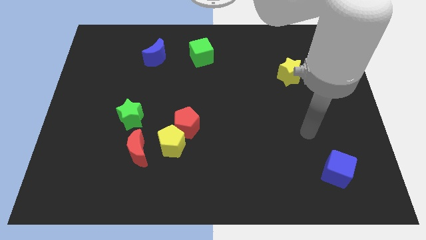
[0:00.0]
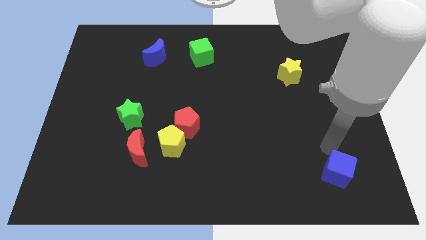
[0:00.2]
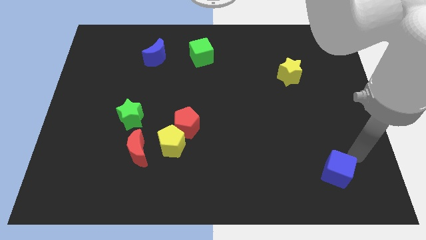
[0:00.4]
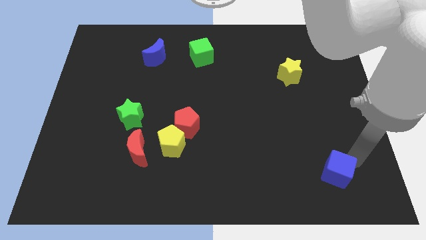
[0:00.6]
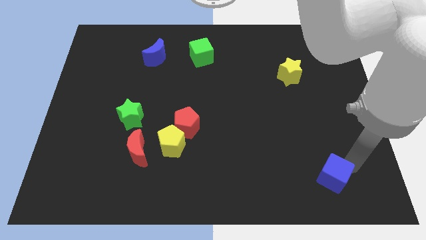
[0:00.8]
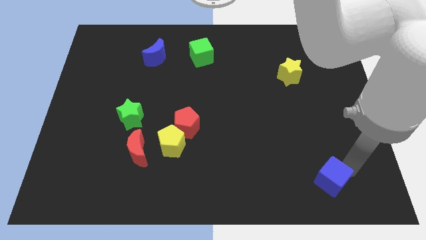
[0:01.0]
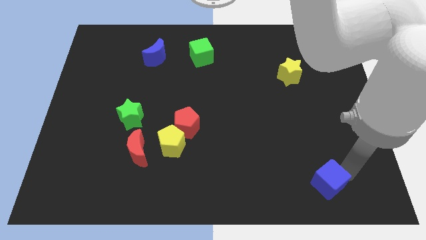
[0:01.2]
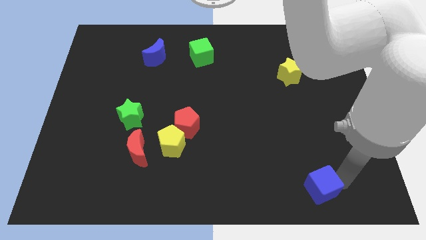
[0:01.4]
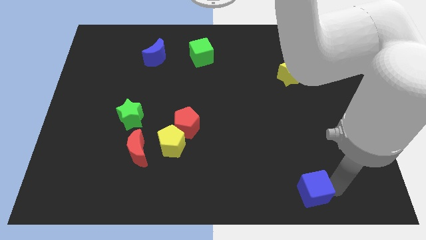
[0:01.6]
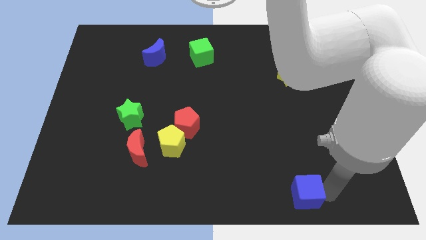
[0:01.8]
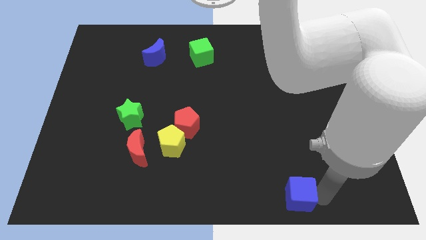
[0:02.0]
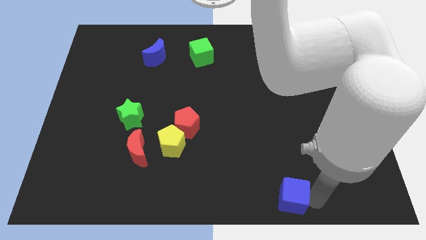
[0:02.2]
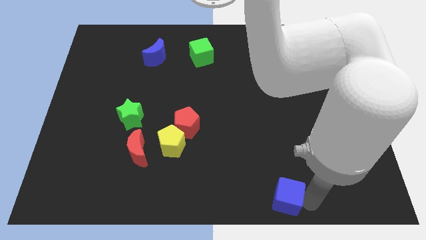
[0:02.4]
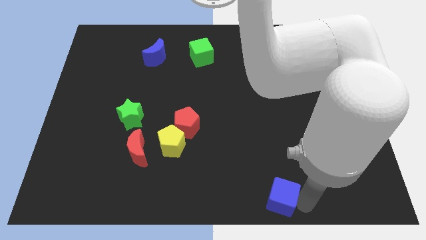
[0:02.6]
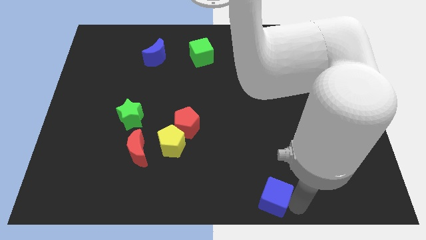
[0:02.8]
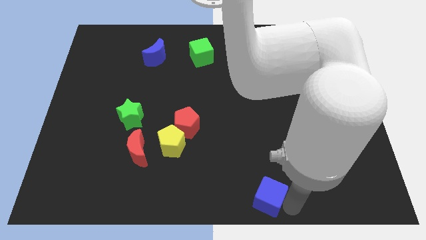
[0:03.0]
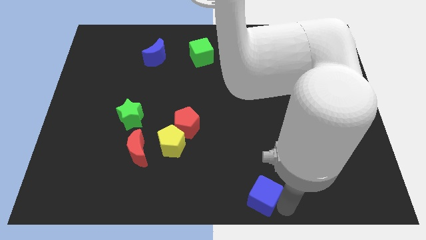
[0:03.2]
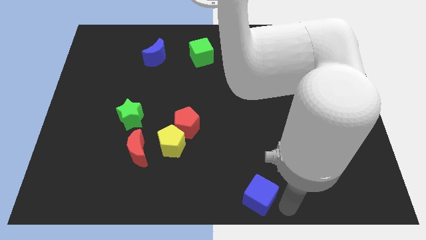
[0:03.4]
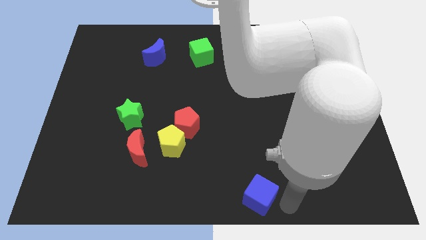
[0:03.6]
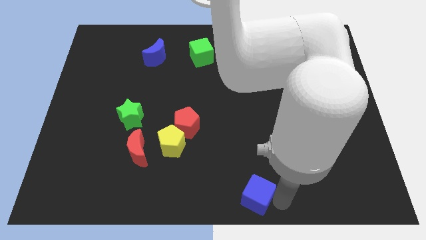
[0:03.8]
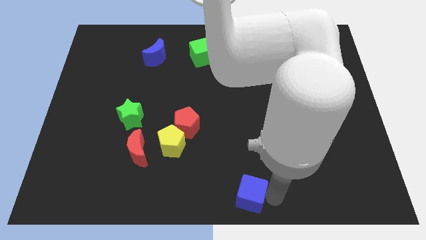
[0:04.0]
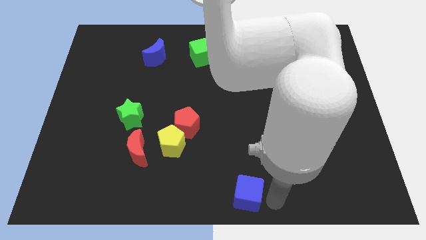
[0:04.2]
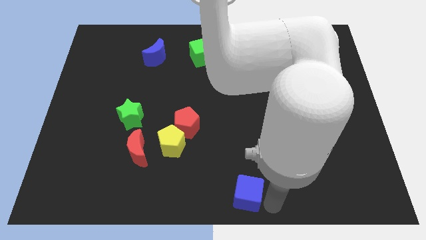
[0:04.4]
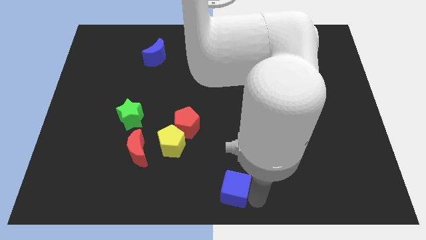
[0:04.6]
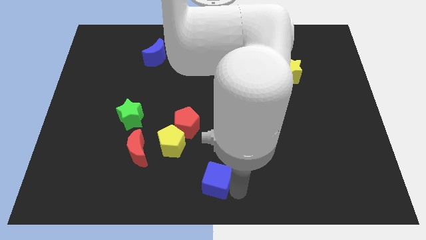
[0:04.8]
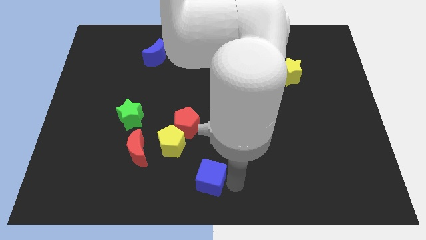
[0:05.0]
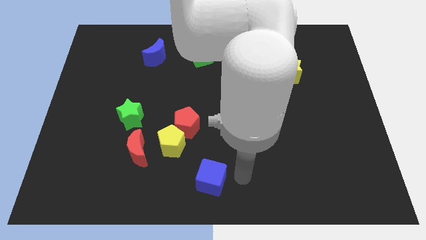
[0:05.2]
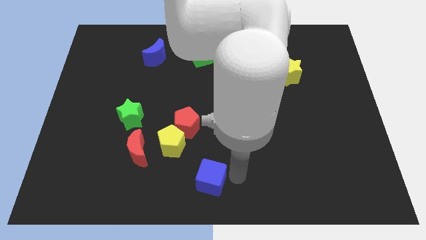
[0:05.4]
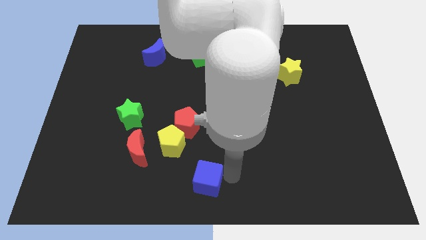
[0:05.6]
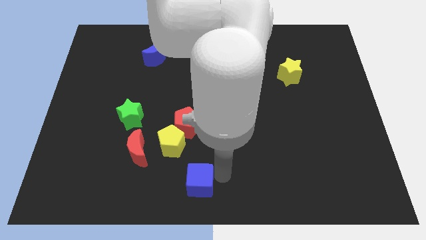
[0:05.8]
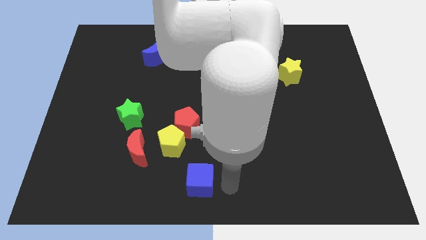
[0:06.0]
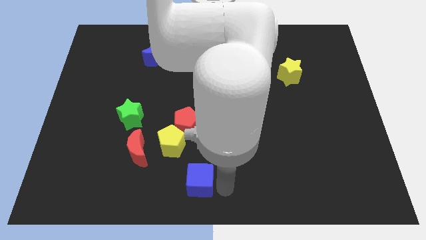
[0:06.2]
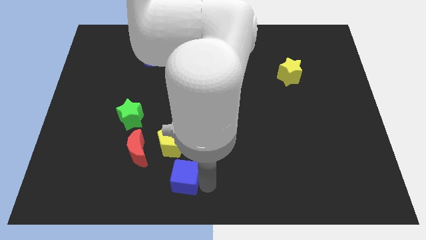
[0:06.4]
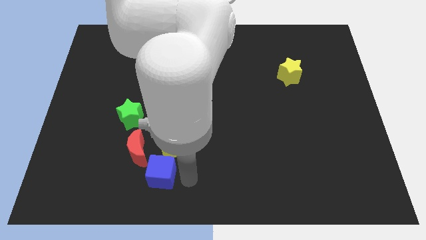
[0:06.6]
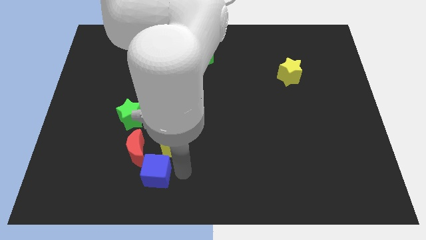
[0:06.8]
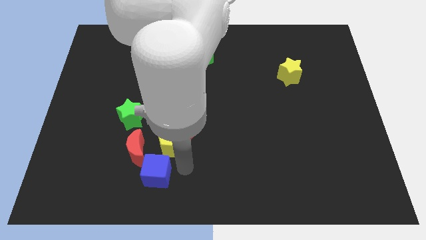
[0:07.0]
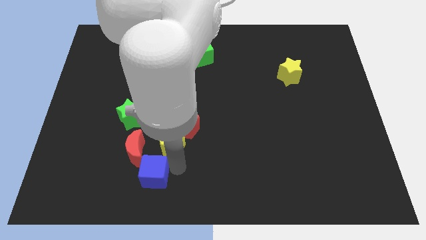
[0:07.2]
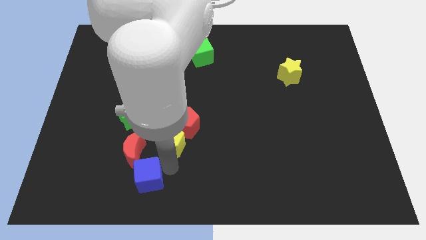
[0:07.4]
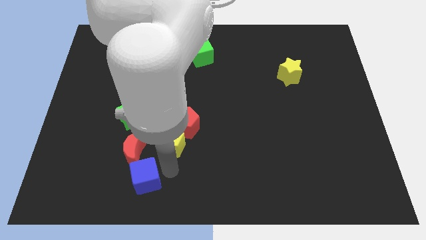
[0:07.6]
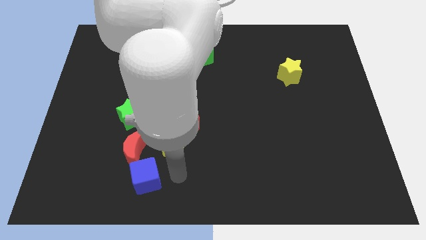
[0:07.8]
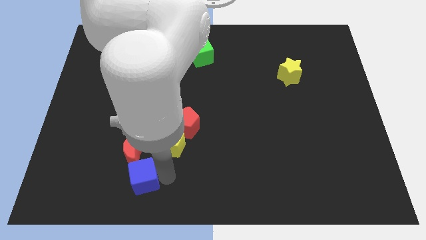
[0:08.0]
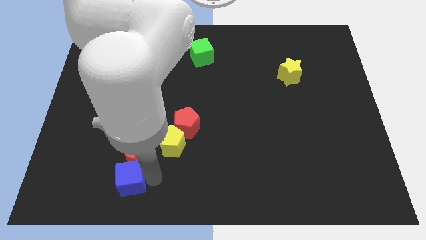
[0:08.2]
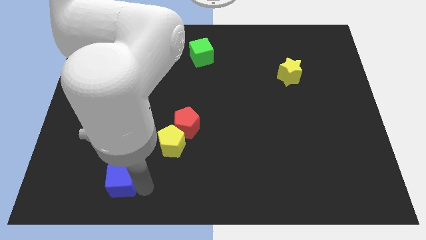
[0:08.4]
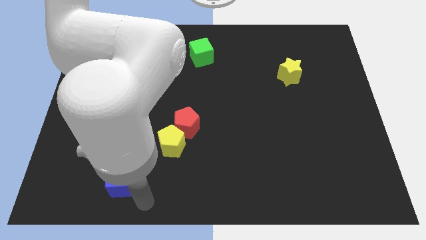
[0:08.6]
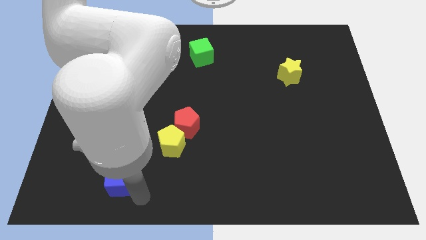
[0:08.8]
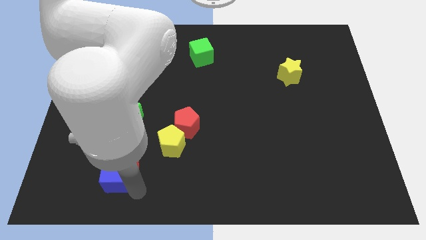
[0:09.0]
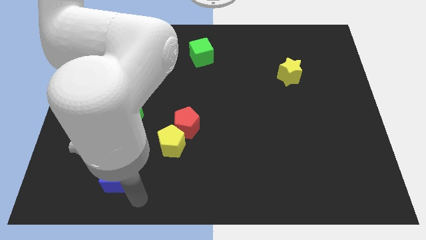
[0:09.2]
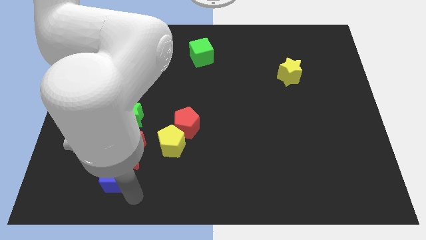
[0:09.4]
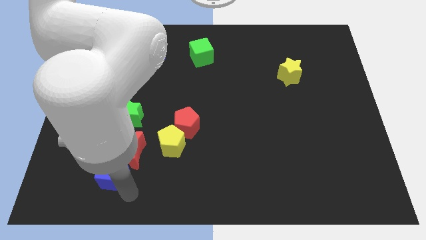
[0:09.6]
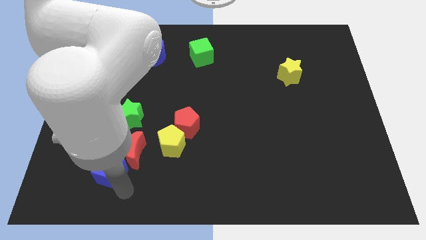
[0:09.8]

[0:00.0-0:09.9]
slide the blue cube just left of the red moon

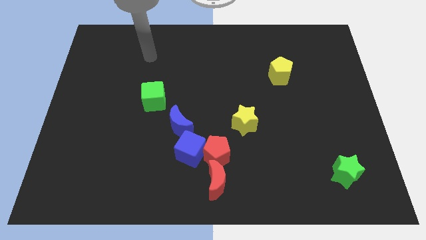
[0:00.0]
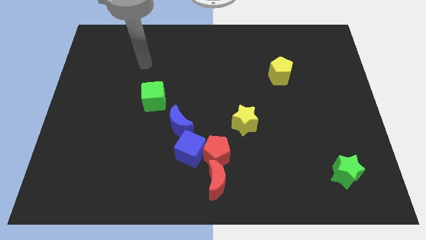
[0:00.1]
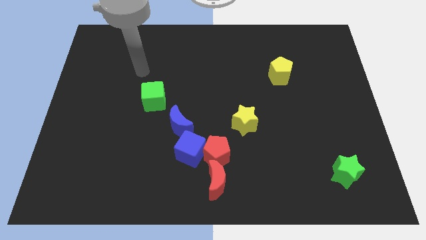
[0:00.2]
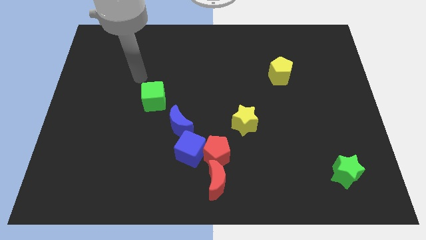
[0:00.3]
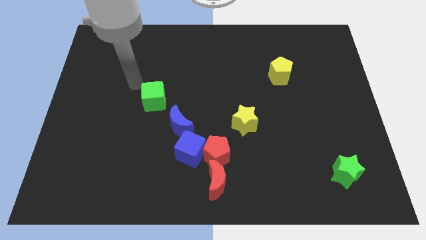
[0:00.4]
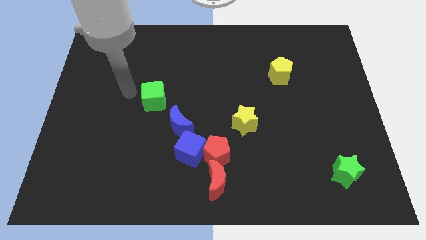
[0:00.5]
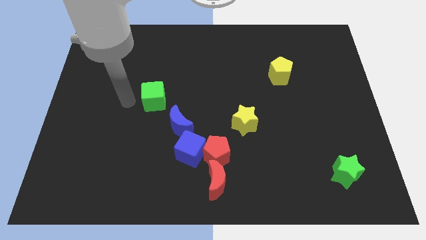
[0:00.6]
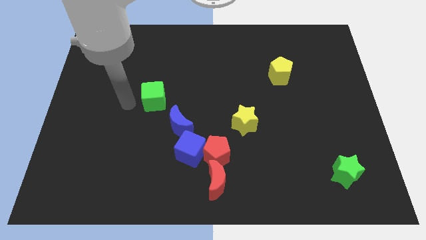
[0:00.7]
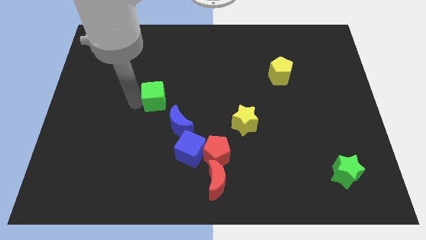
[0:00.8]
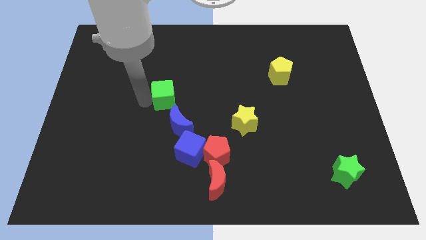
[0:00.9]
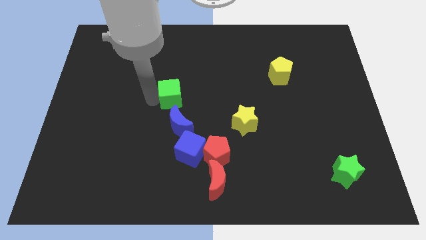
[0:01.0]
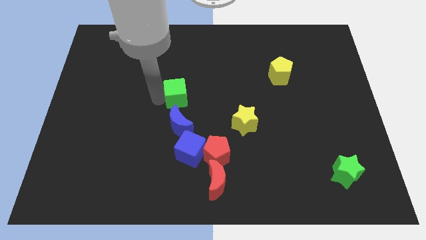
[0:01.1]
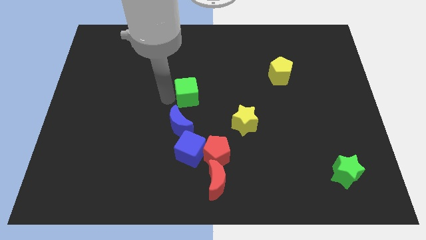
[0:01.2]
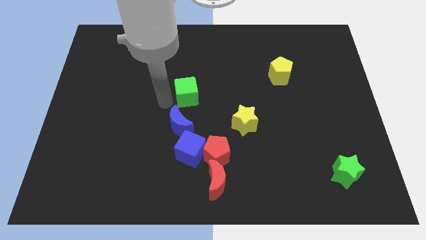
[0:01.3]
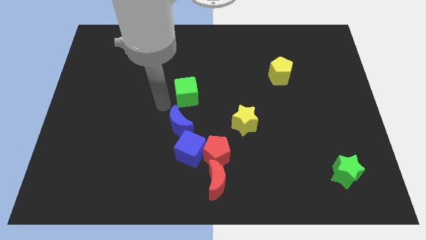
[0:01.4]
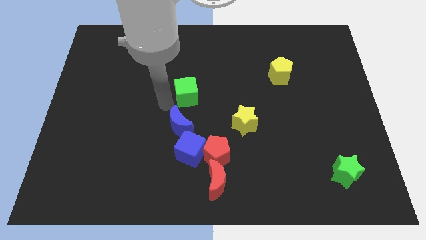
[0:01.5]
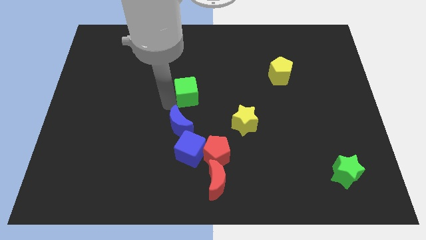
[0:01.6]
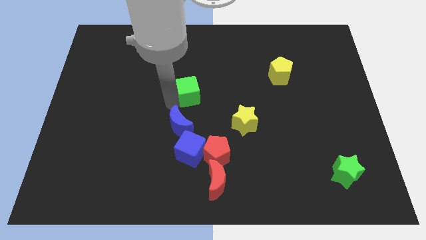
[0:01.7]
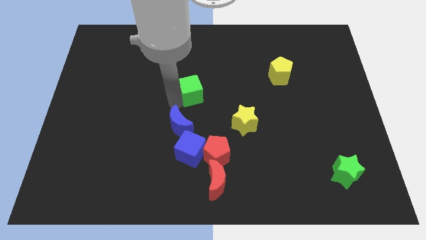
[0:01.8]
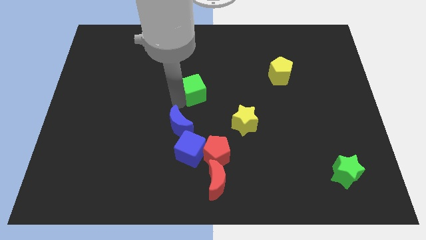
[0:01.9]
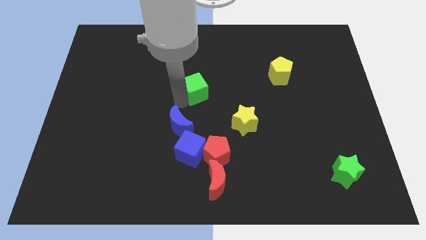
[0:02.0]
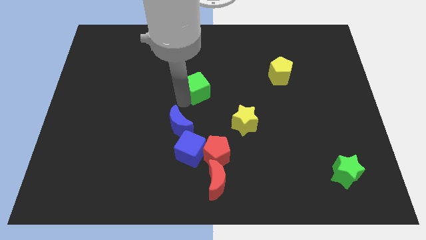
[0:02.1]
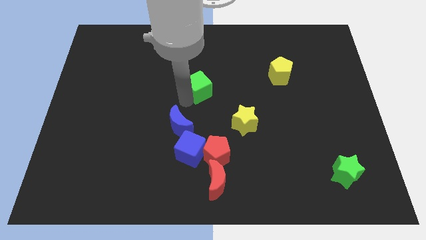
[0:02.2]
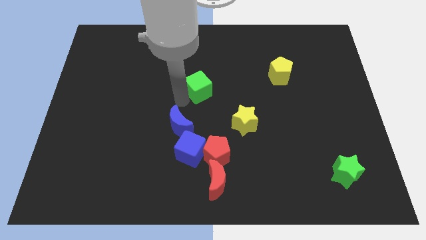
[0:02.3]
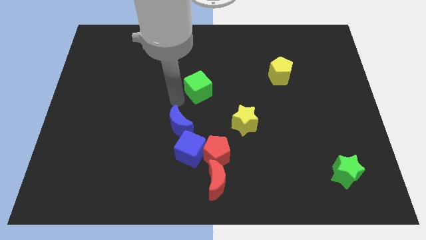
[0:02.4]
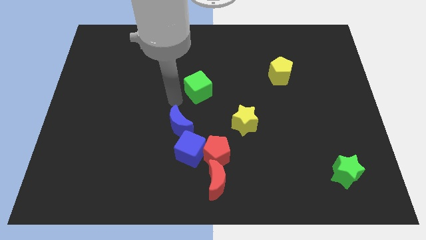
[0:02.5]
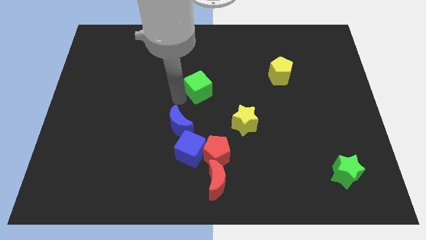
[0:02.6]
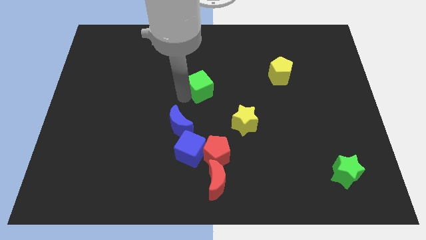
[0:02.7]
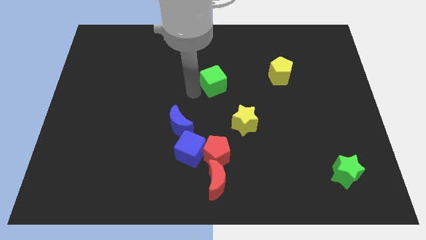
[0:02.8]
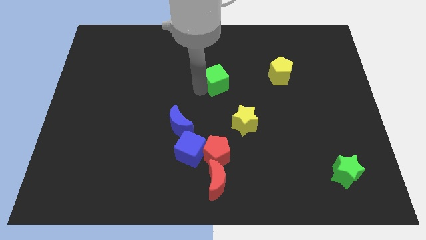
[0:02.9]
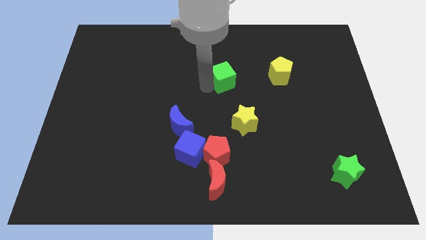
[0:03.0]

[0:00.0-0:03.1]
put the green cube just left of the yellow pentagon

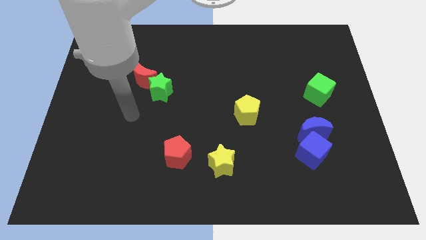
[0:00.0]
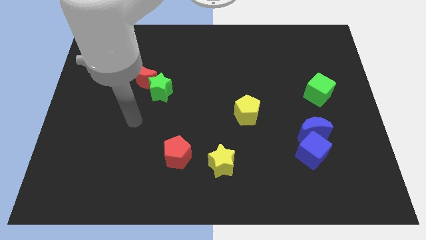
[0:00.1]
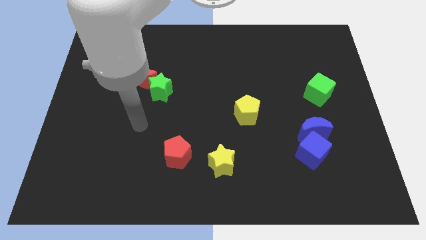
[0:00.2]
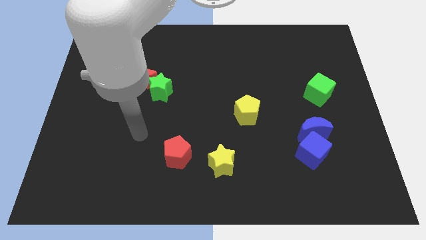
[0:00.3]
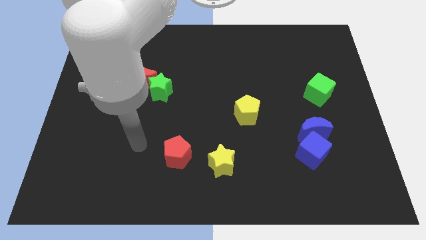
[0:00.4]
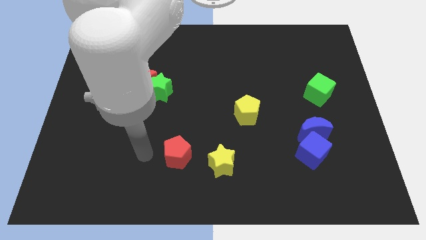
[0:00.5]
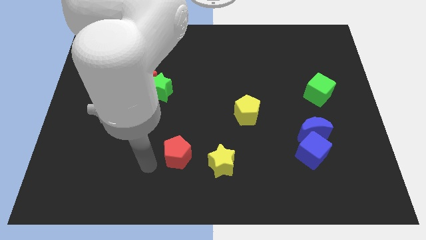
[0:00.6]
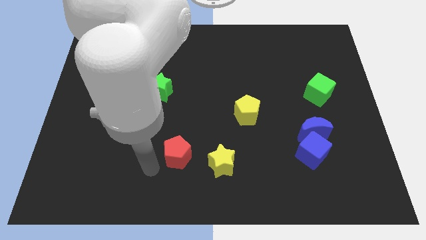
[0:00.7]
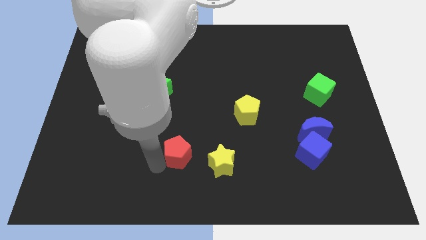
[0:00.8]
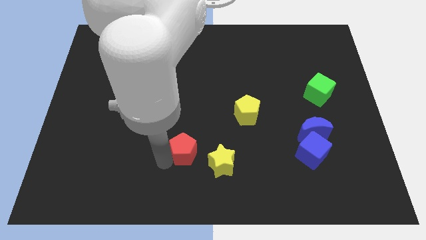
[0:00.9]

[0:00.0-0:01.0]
move the red pentagon to the top left of the yellow star
